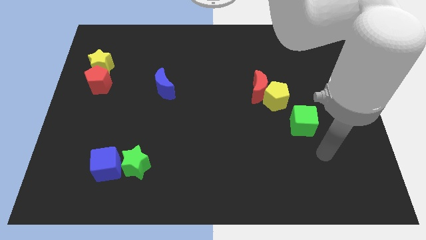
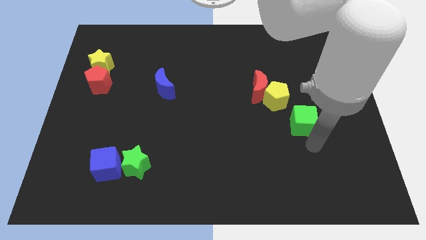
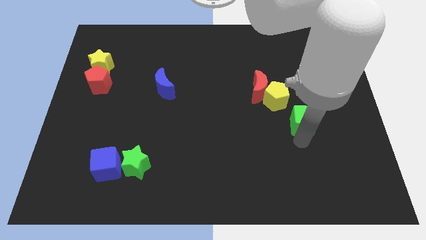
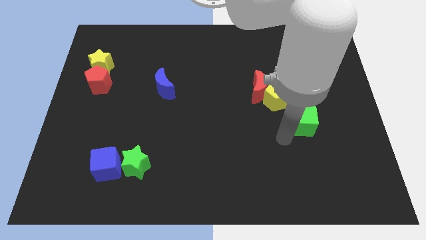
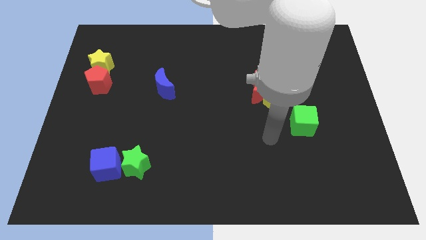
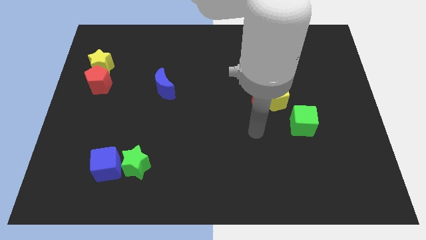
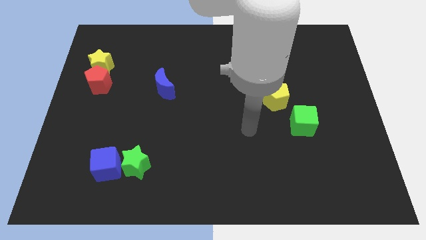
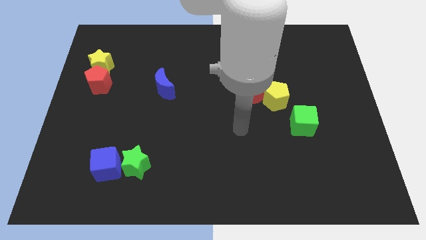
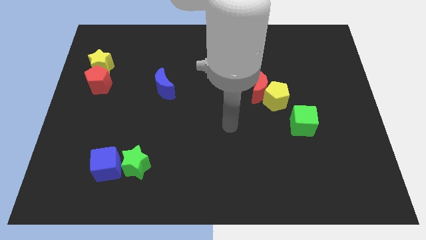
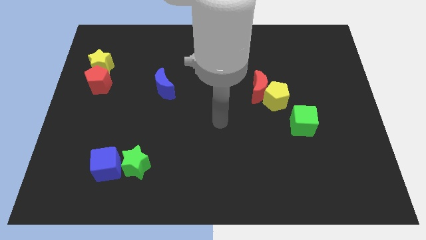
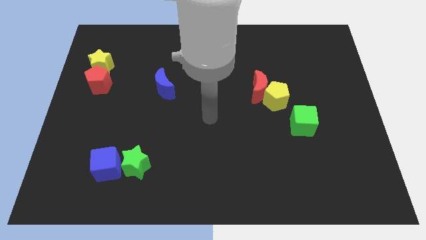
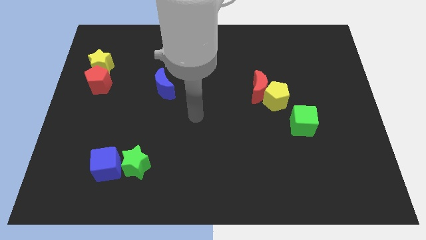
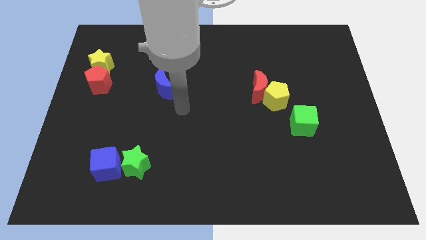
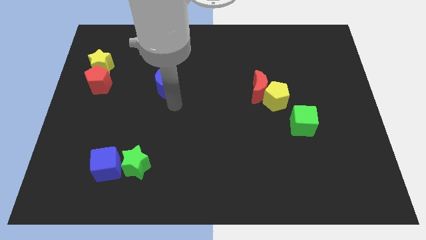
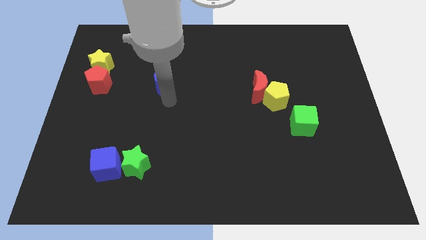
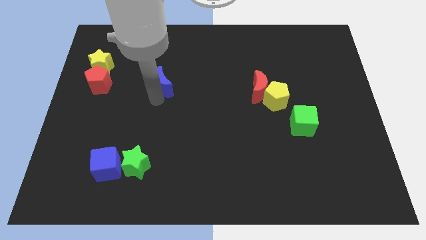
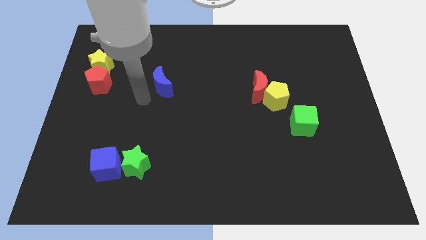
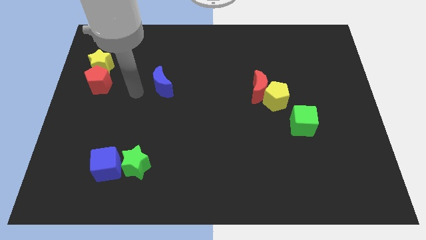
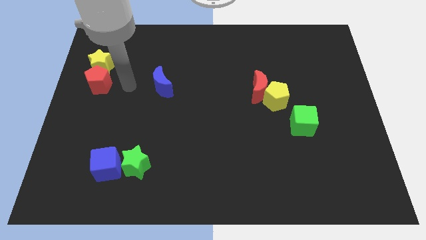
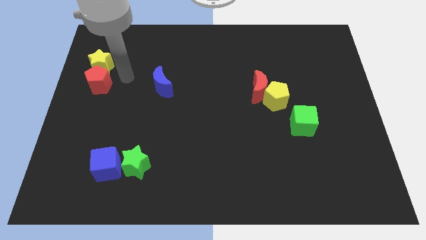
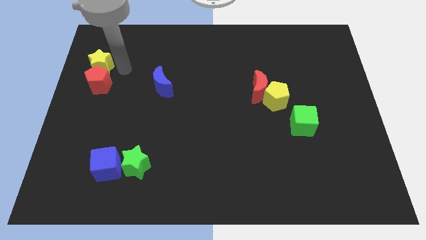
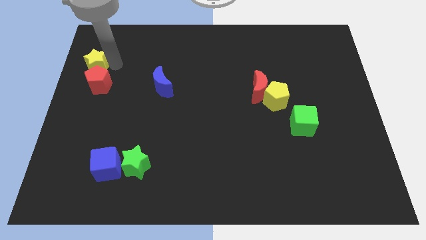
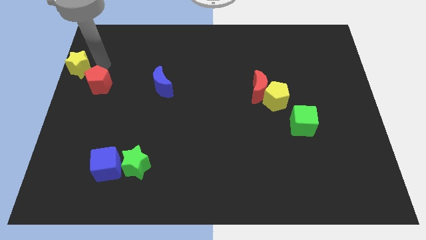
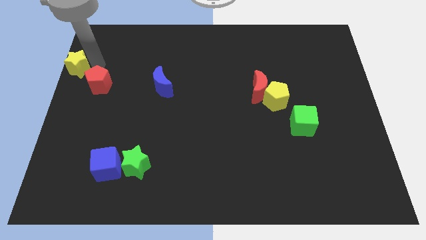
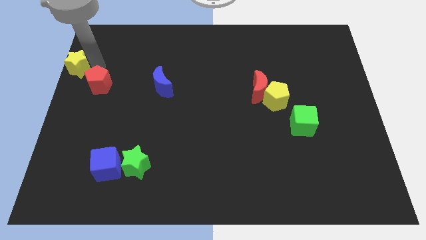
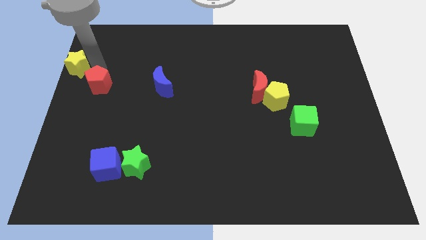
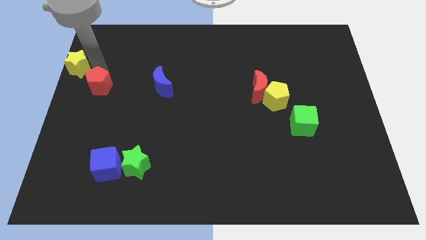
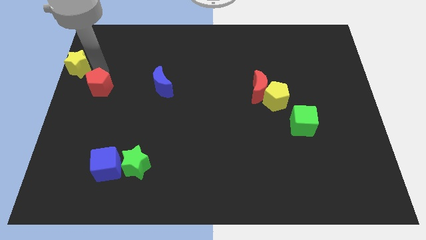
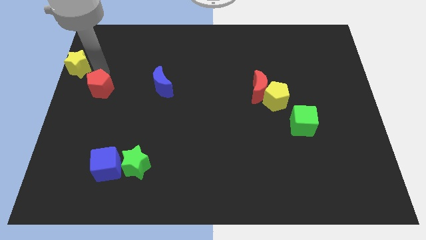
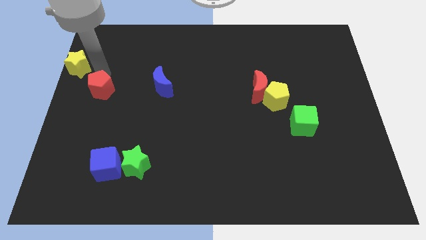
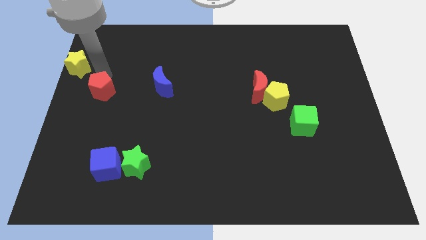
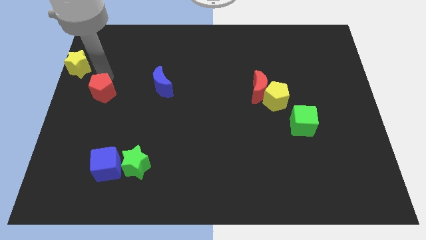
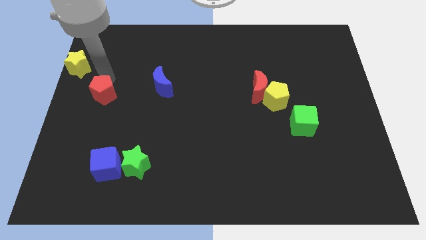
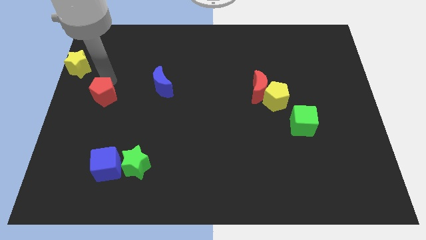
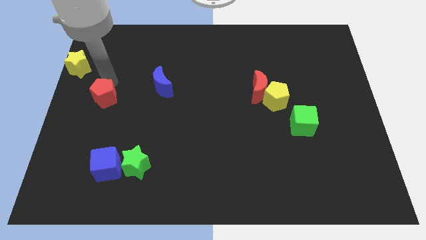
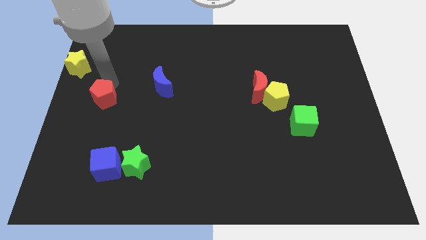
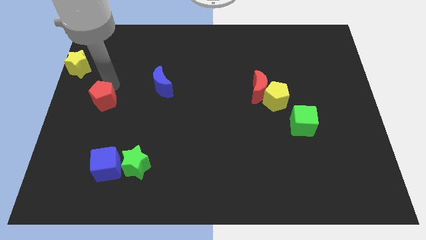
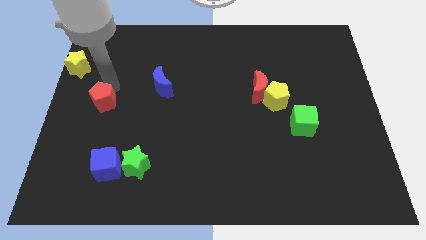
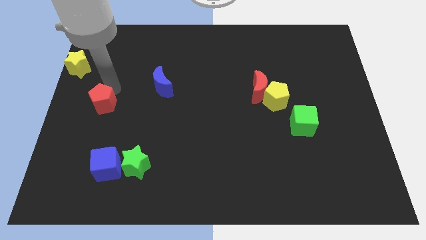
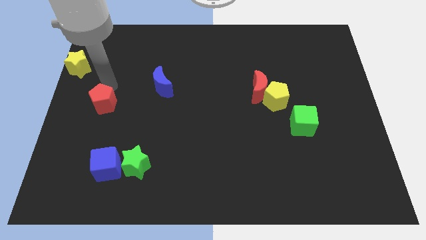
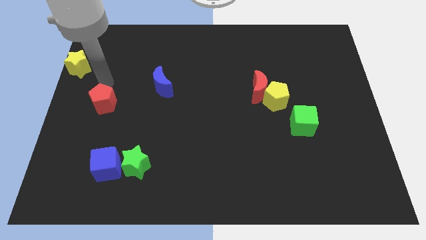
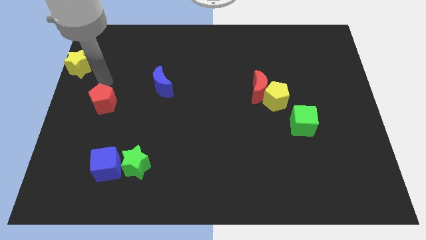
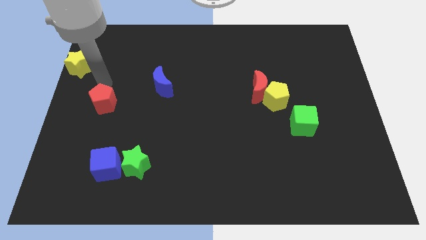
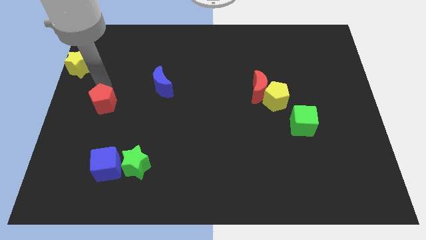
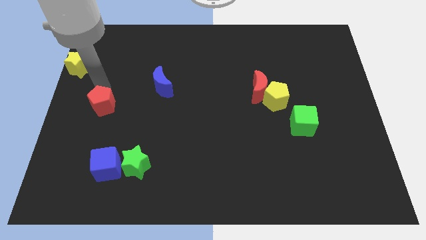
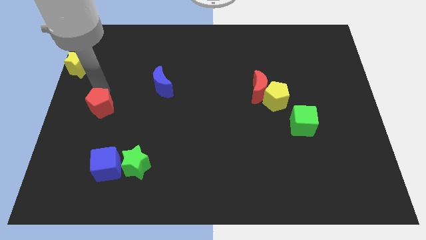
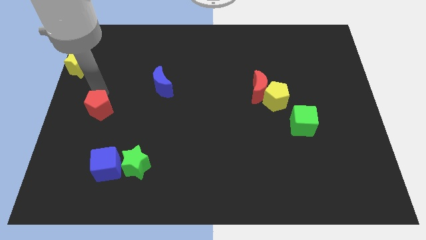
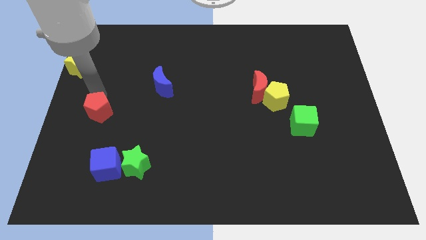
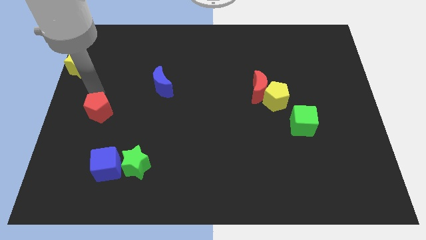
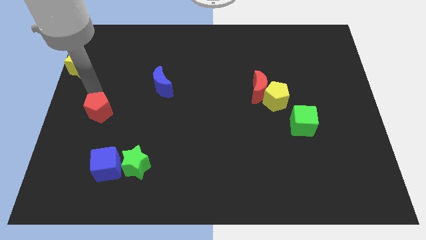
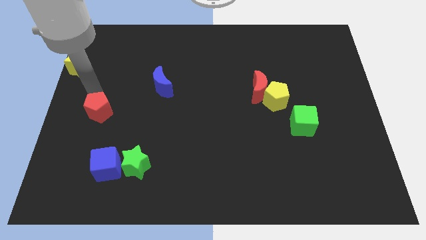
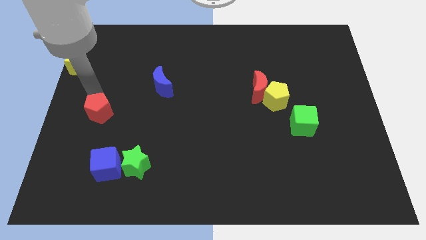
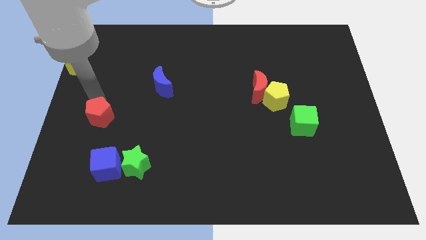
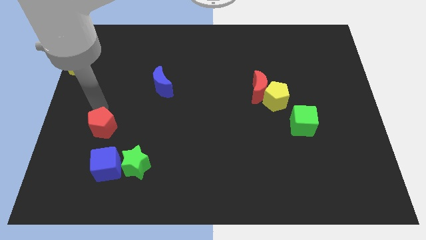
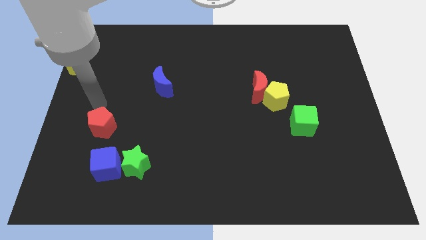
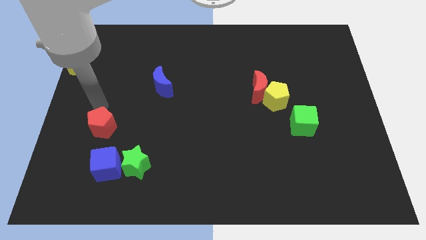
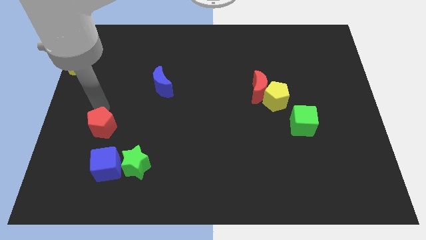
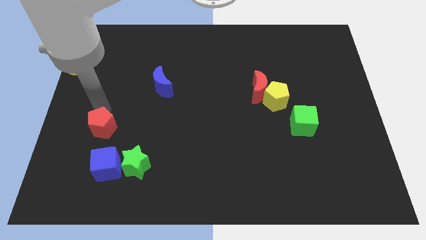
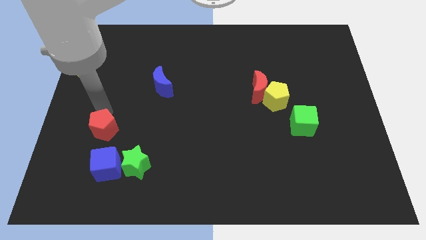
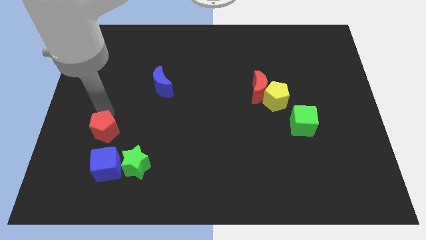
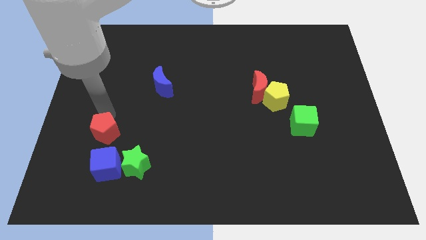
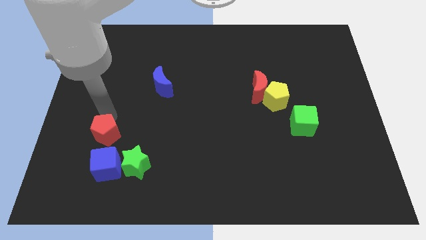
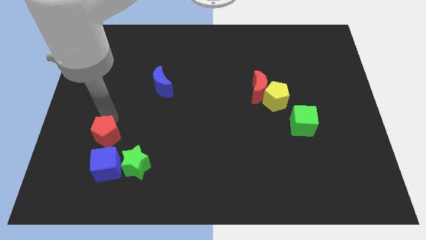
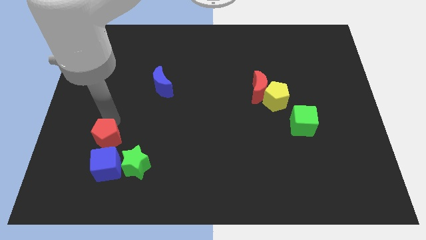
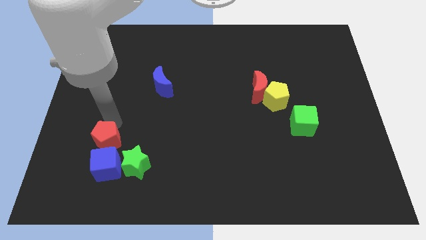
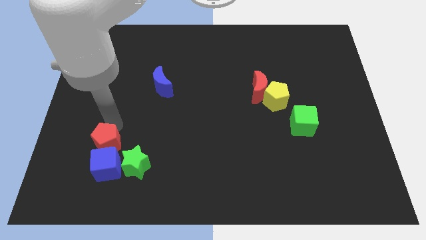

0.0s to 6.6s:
move the red pentagon towards the blue cube

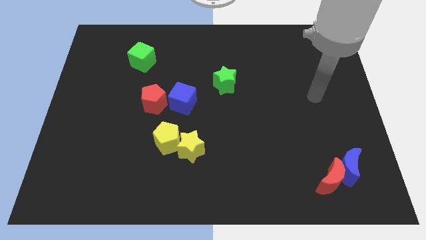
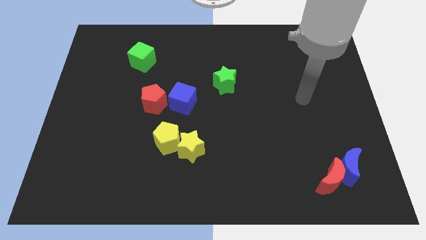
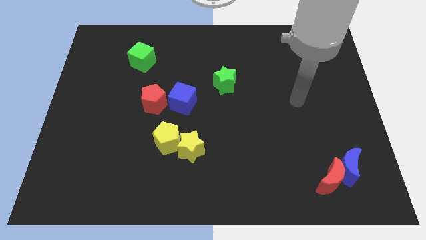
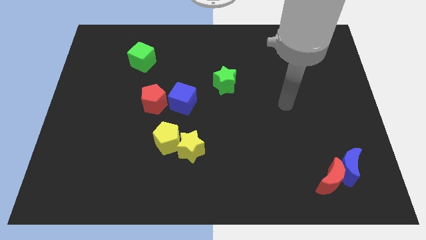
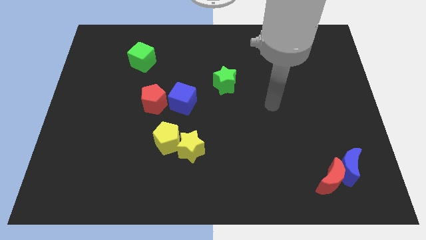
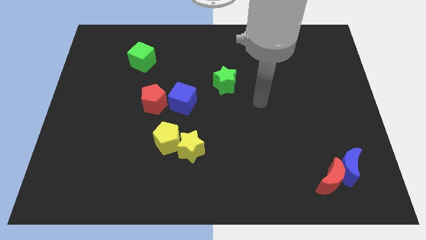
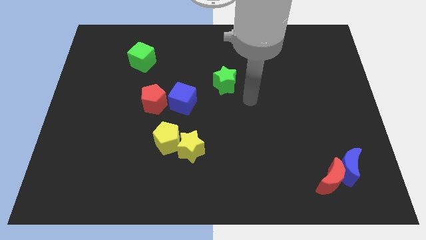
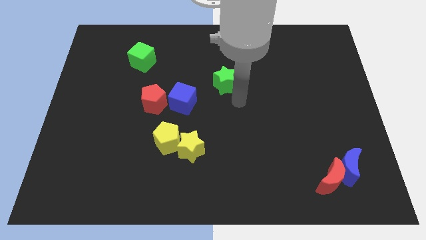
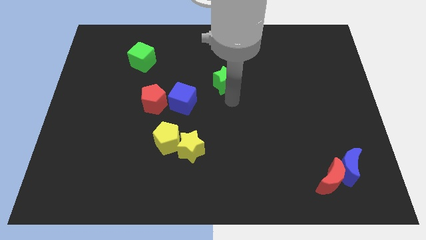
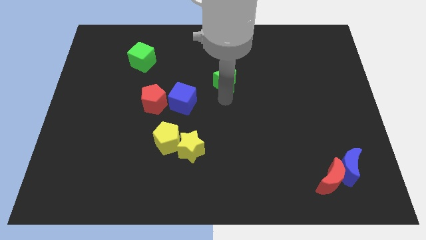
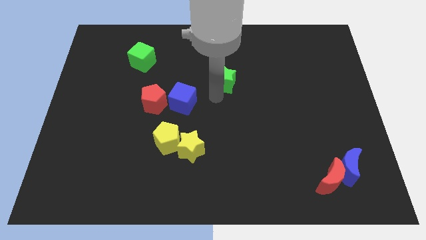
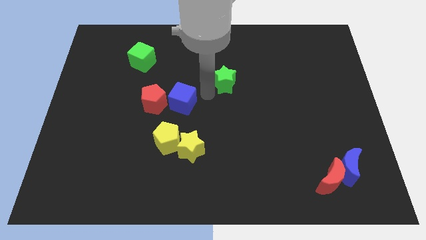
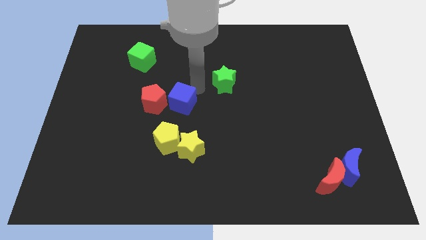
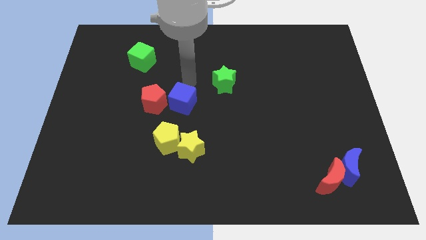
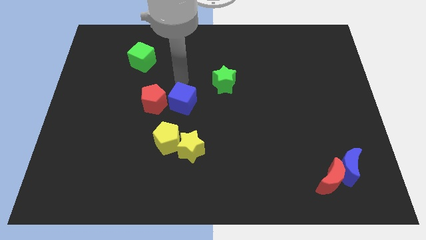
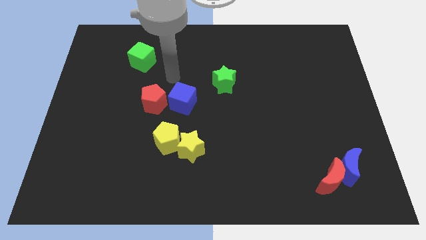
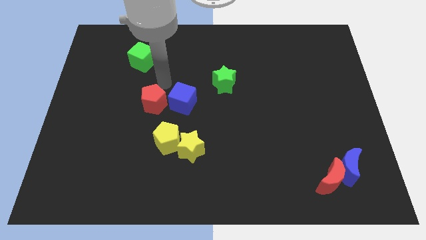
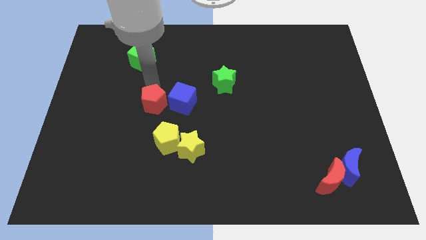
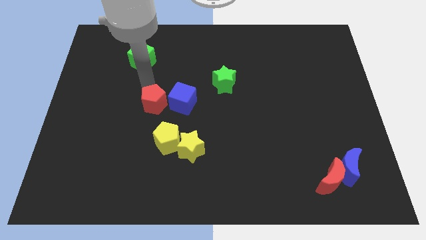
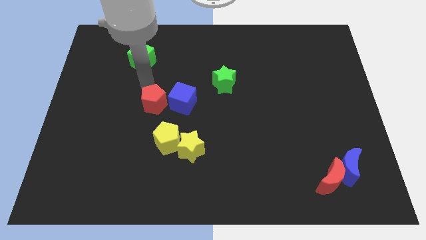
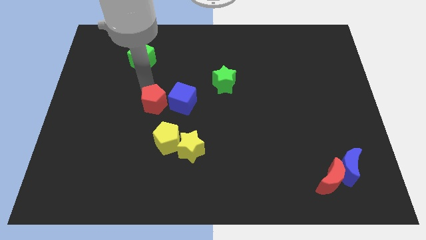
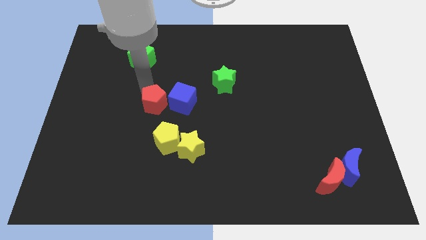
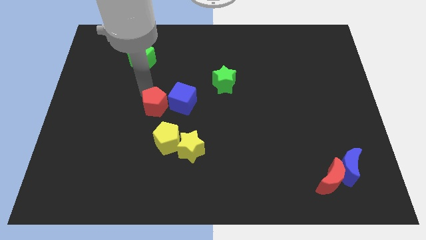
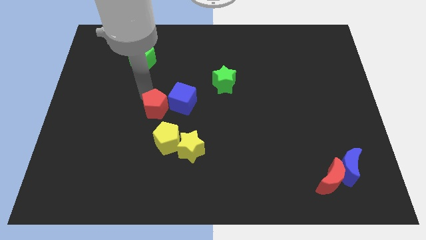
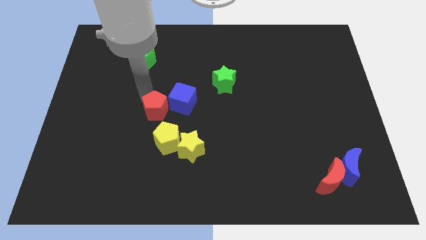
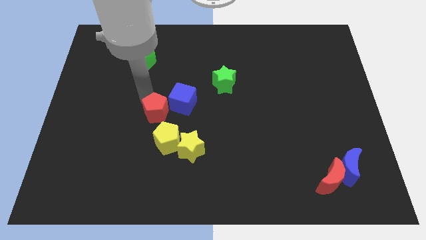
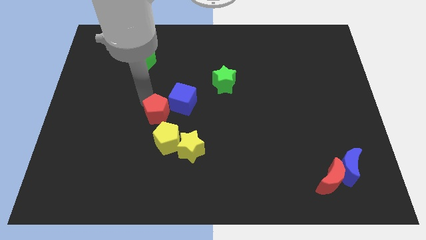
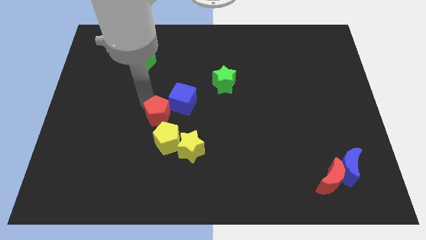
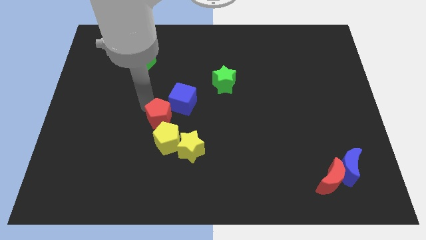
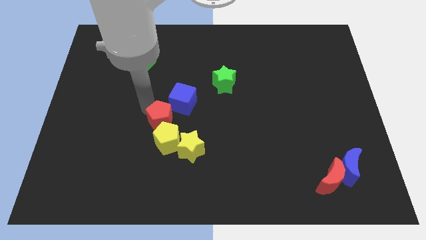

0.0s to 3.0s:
put the red pentagon close to the yellow pentagon
